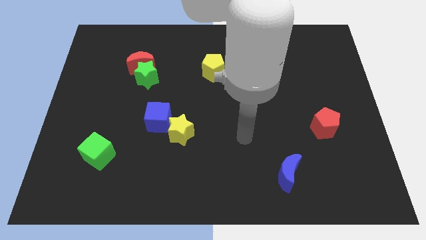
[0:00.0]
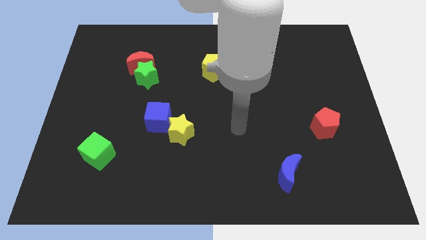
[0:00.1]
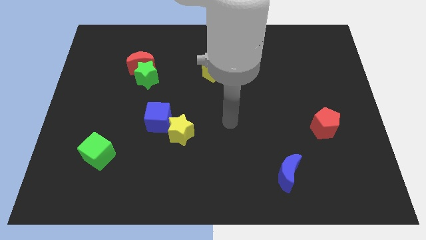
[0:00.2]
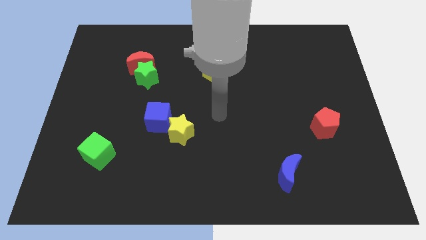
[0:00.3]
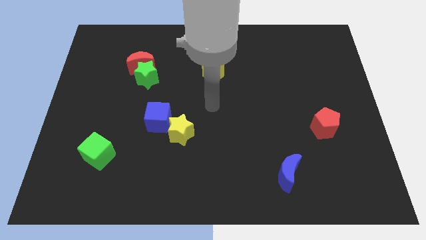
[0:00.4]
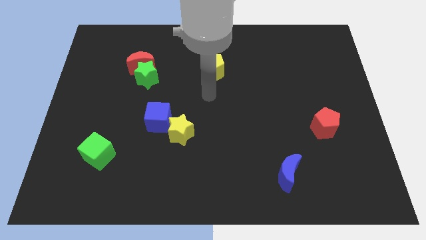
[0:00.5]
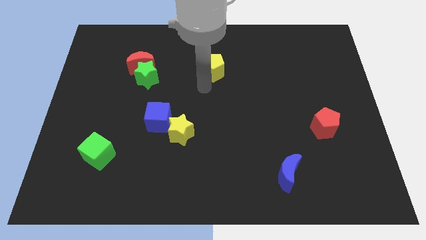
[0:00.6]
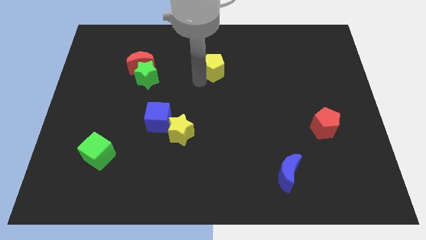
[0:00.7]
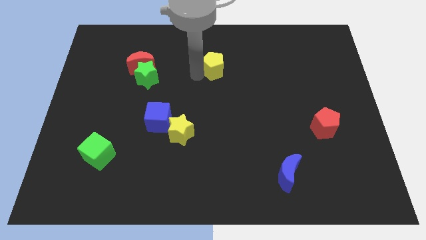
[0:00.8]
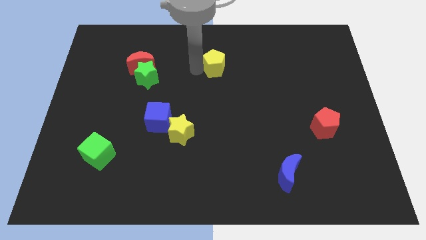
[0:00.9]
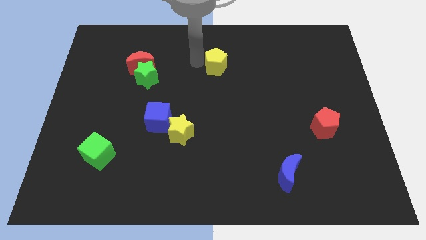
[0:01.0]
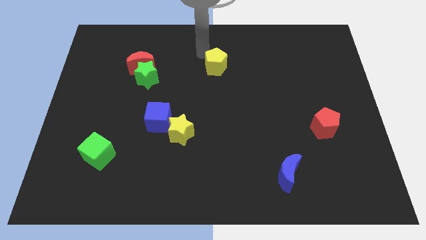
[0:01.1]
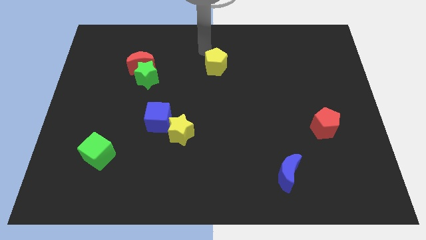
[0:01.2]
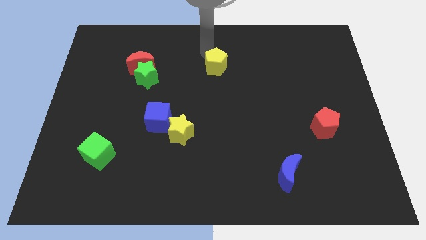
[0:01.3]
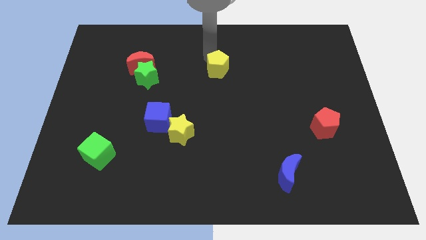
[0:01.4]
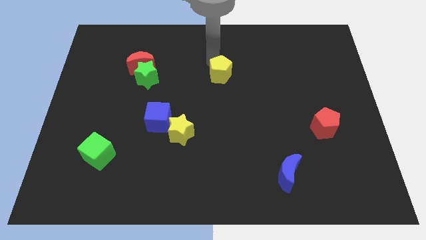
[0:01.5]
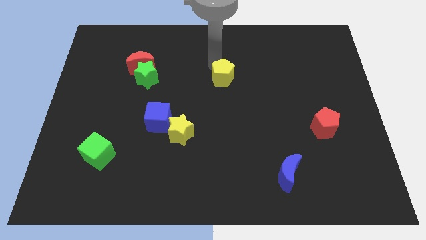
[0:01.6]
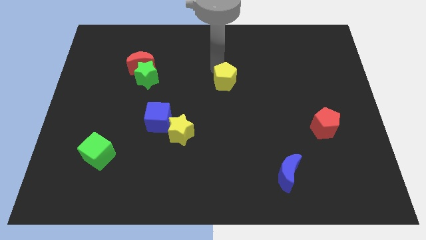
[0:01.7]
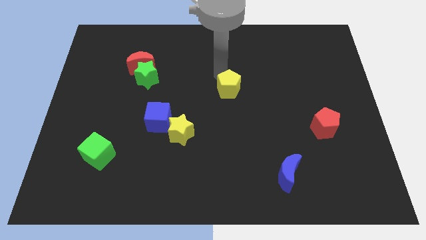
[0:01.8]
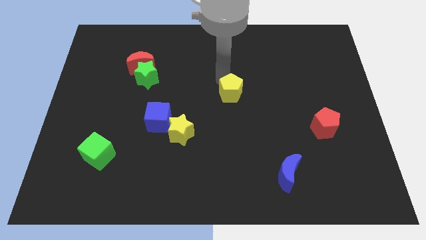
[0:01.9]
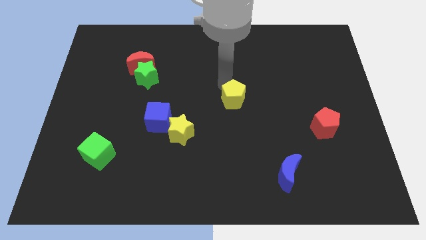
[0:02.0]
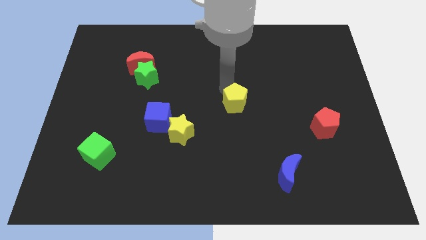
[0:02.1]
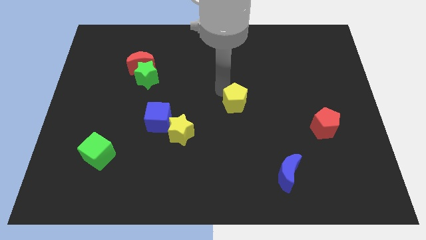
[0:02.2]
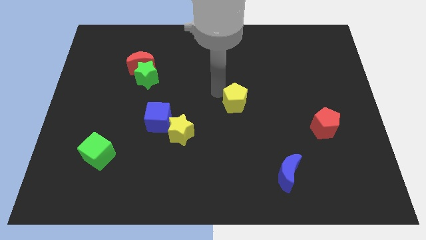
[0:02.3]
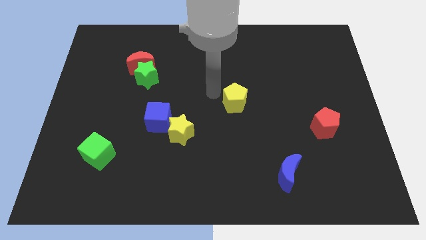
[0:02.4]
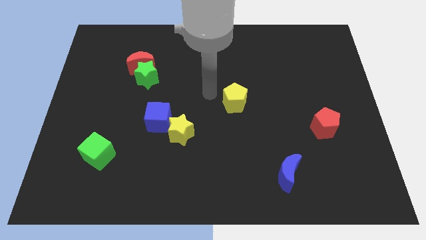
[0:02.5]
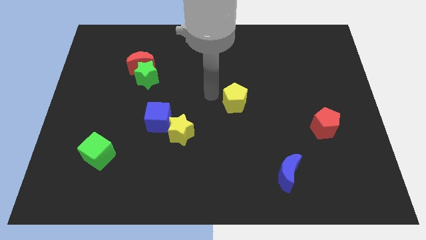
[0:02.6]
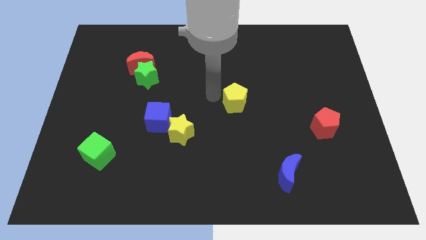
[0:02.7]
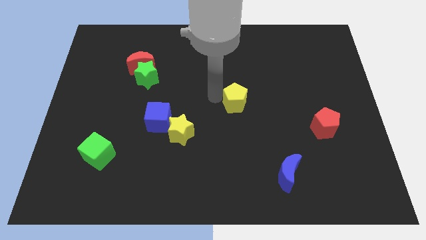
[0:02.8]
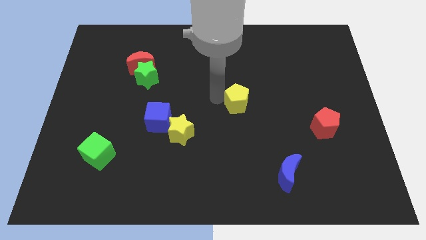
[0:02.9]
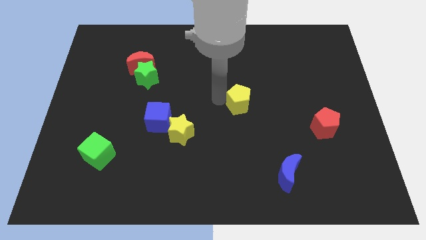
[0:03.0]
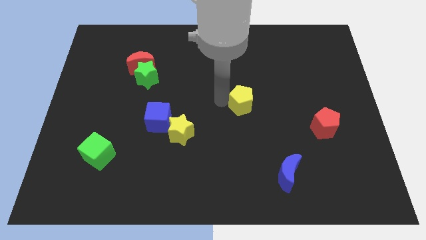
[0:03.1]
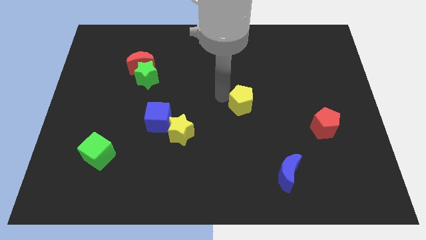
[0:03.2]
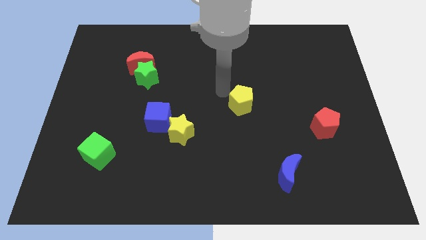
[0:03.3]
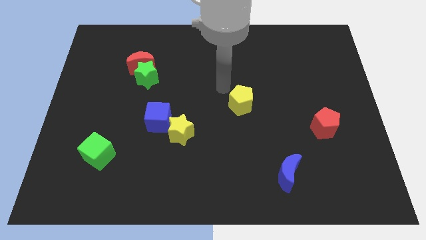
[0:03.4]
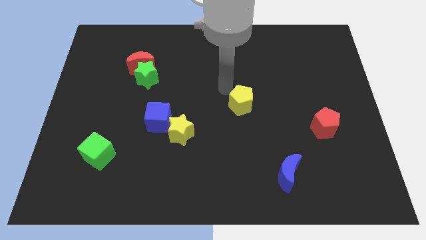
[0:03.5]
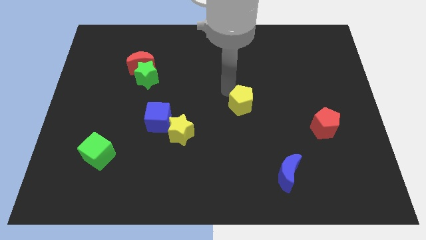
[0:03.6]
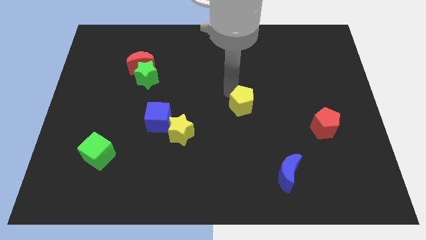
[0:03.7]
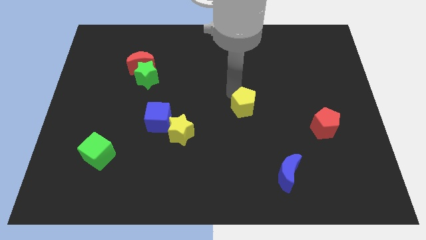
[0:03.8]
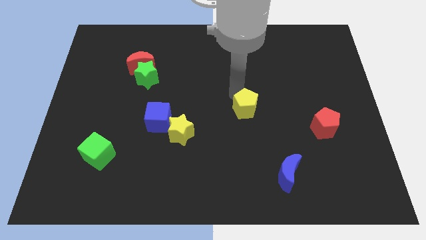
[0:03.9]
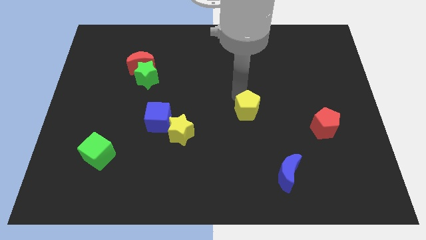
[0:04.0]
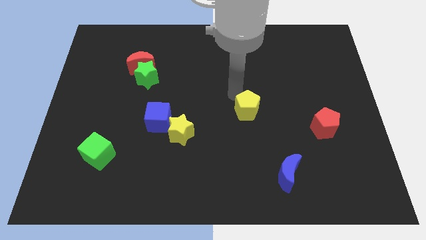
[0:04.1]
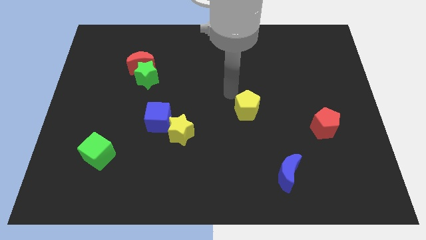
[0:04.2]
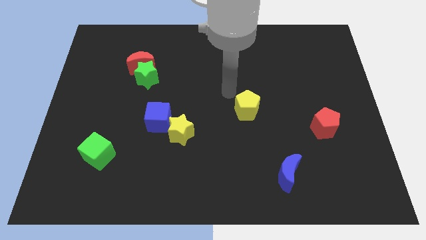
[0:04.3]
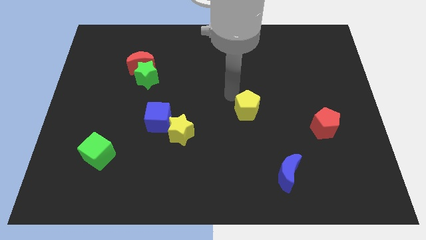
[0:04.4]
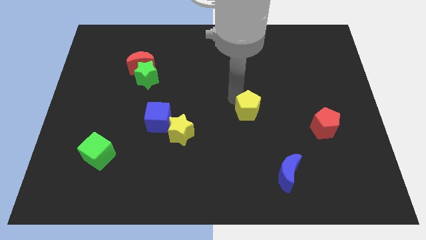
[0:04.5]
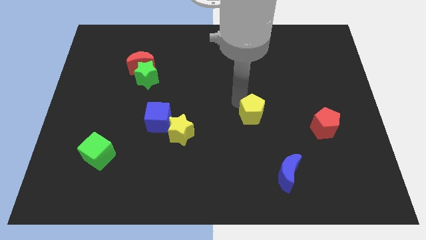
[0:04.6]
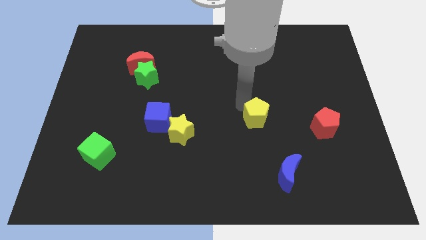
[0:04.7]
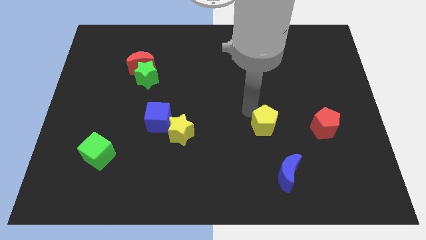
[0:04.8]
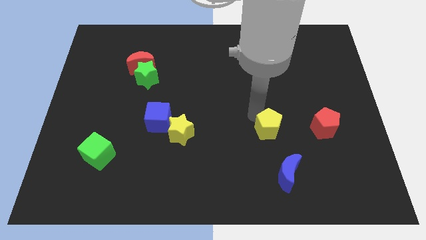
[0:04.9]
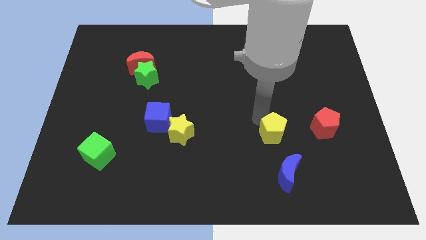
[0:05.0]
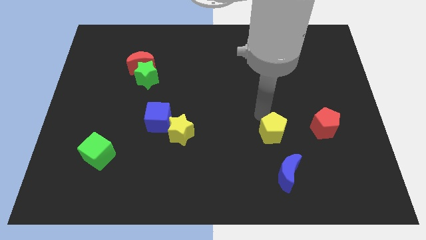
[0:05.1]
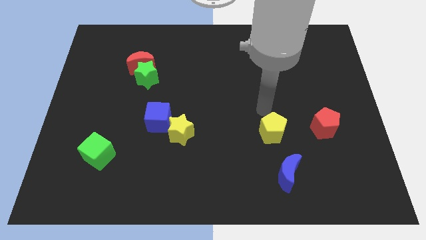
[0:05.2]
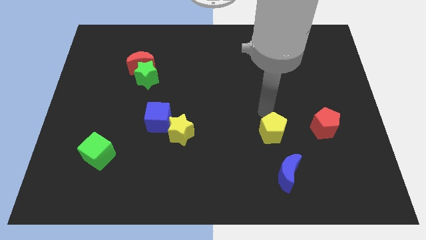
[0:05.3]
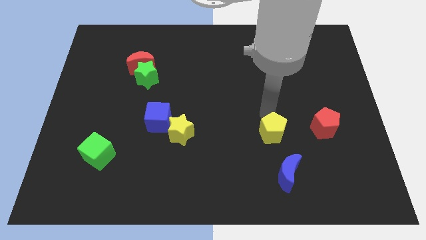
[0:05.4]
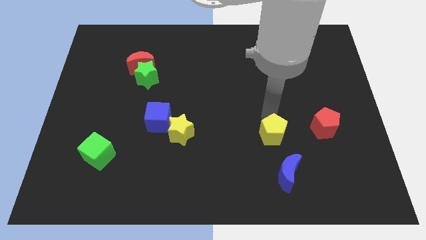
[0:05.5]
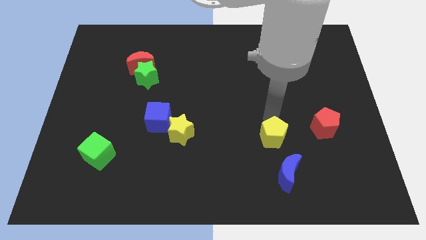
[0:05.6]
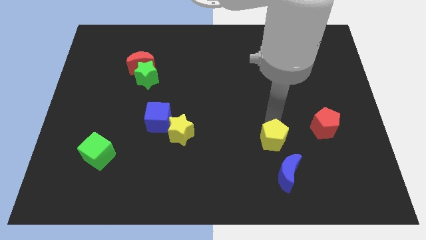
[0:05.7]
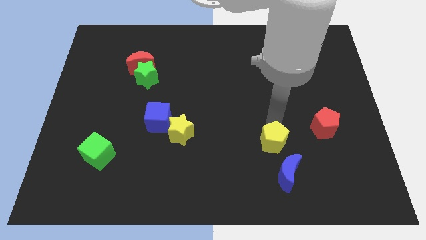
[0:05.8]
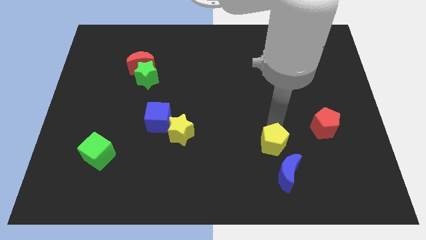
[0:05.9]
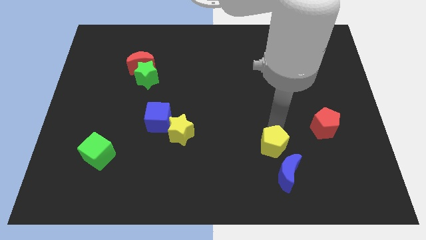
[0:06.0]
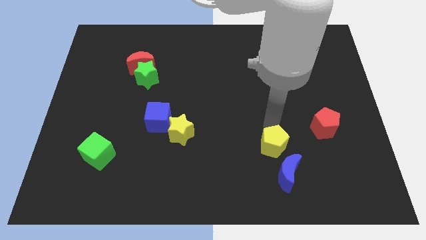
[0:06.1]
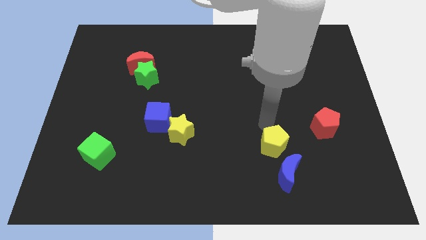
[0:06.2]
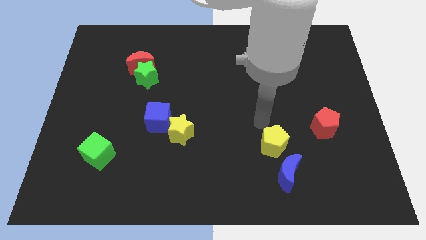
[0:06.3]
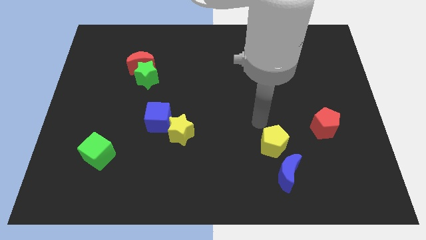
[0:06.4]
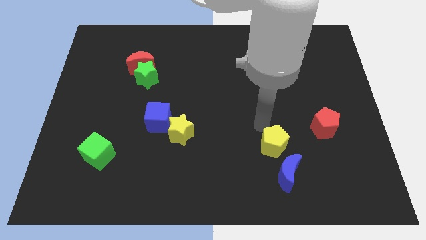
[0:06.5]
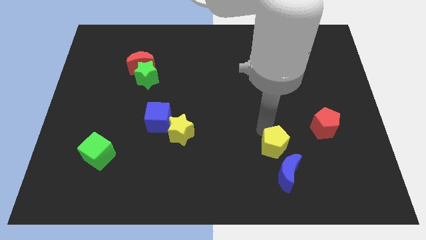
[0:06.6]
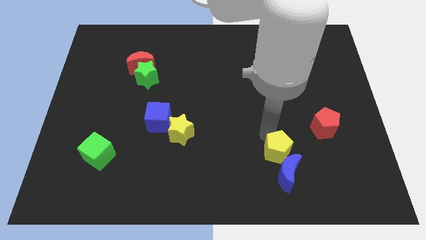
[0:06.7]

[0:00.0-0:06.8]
push the yellow pentagon next to the blue moon

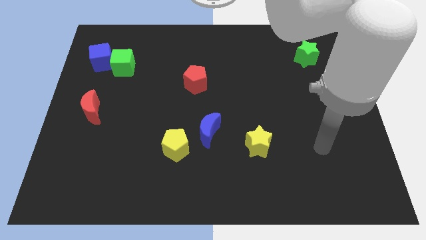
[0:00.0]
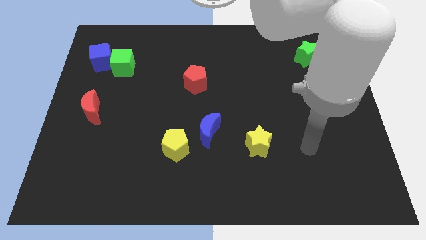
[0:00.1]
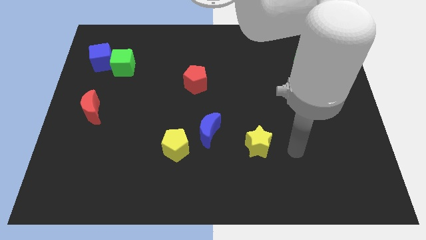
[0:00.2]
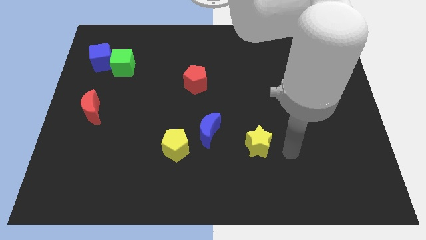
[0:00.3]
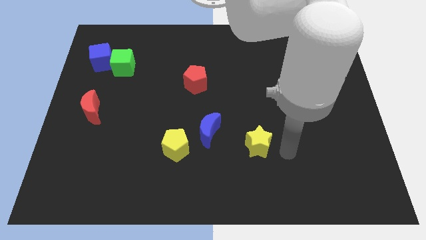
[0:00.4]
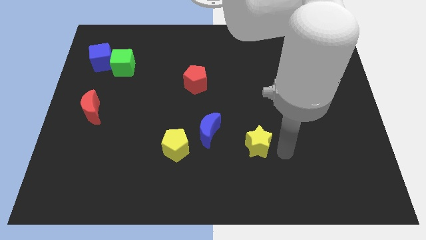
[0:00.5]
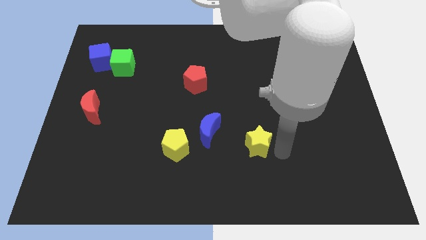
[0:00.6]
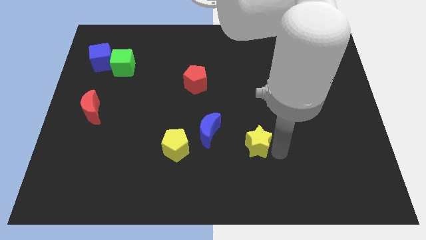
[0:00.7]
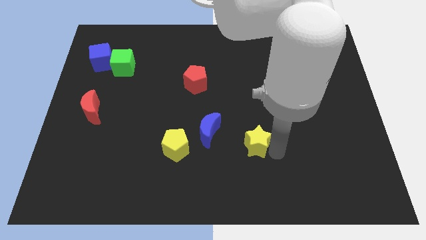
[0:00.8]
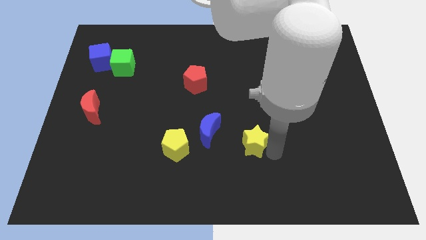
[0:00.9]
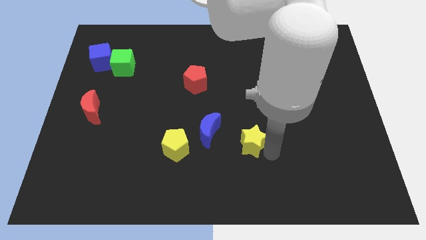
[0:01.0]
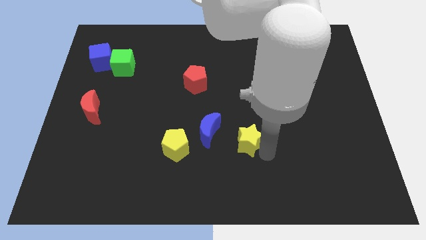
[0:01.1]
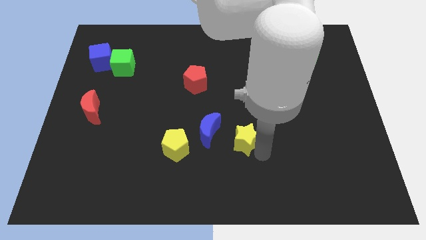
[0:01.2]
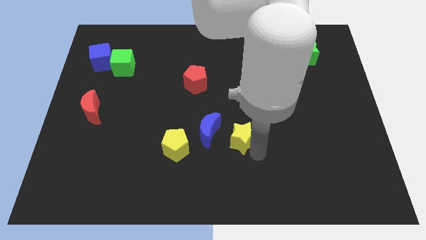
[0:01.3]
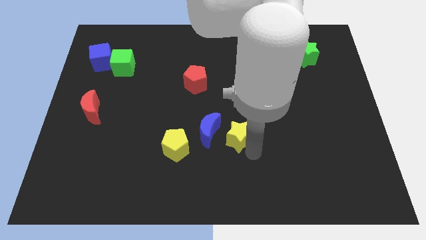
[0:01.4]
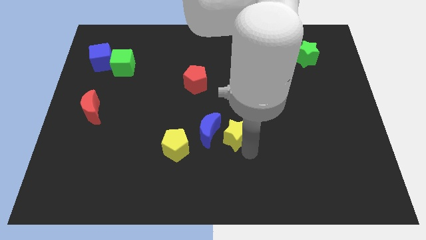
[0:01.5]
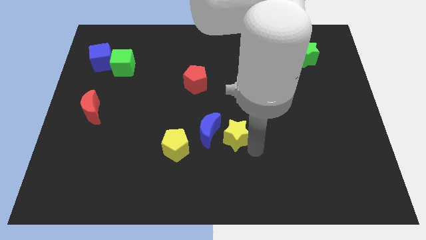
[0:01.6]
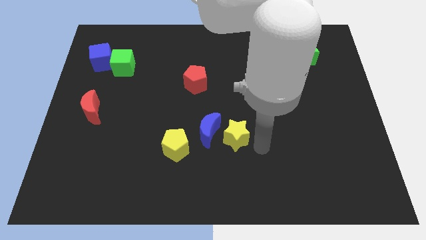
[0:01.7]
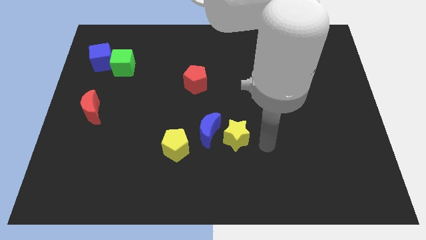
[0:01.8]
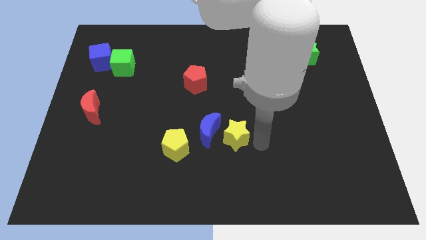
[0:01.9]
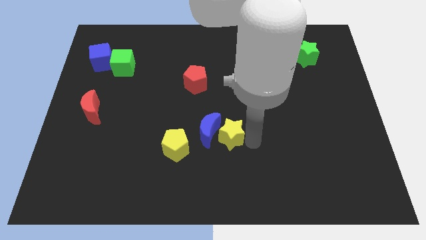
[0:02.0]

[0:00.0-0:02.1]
push the yellow star close to the blue moon
